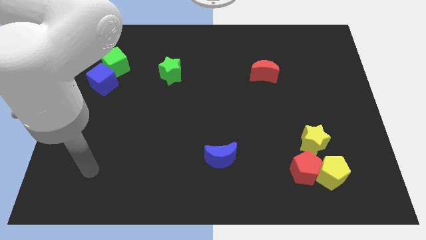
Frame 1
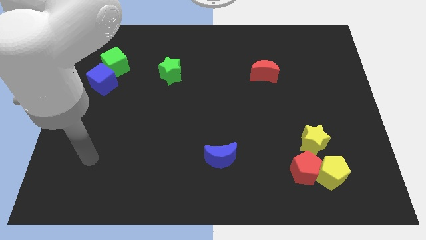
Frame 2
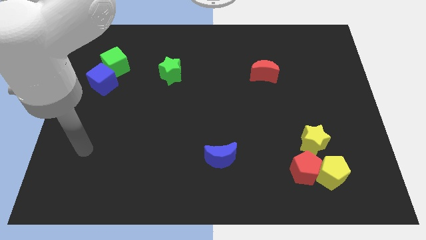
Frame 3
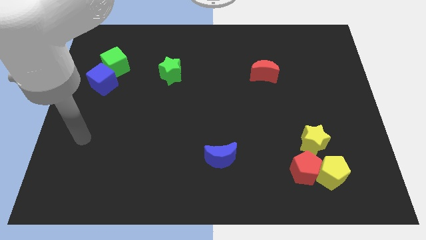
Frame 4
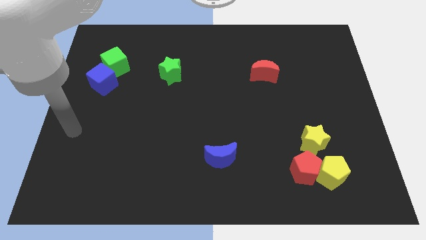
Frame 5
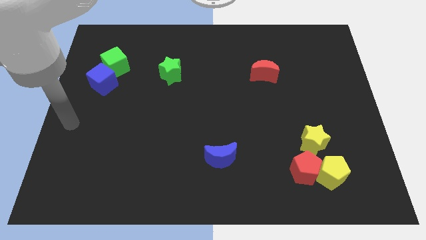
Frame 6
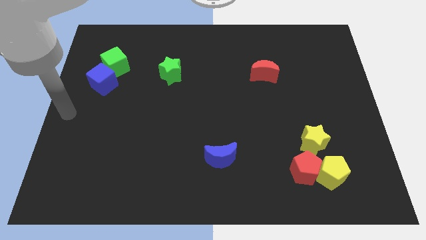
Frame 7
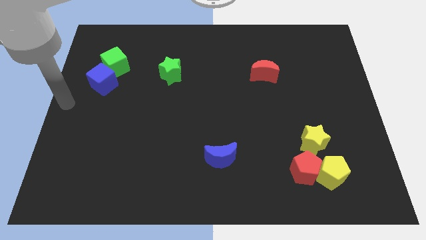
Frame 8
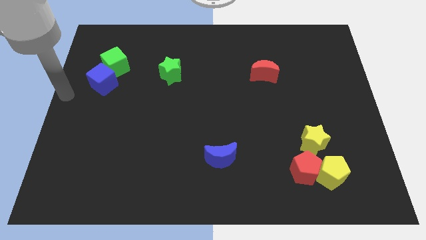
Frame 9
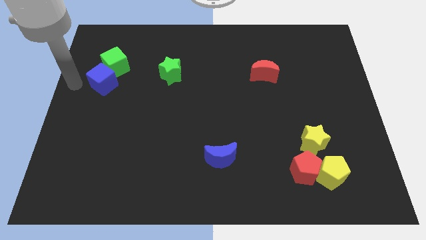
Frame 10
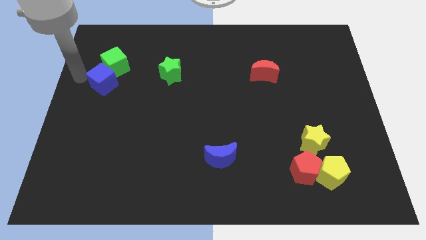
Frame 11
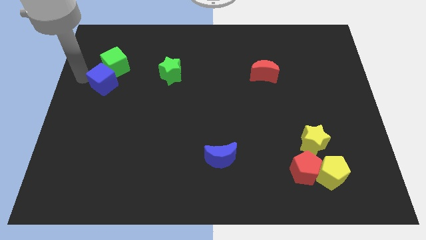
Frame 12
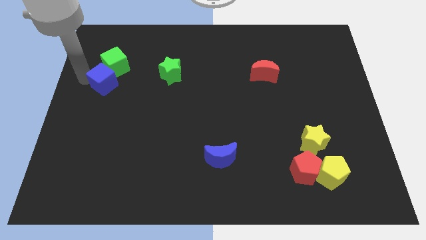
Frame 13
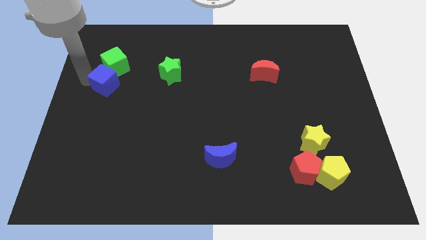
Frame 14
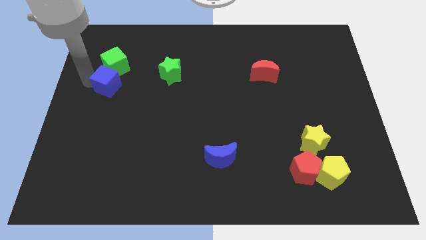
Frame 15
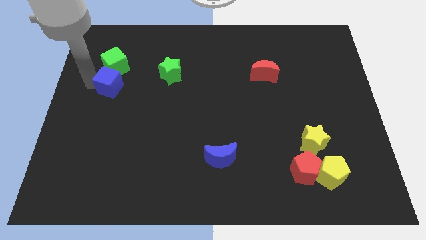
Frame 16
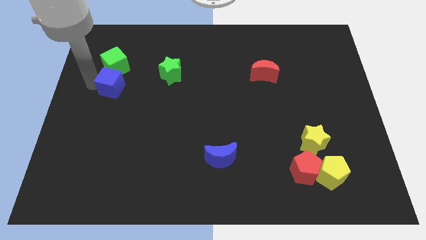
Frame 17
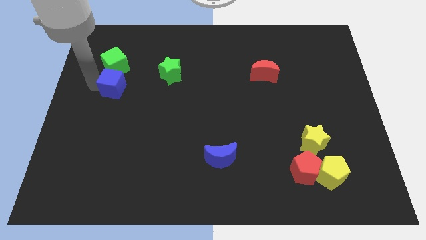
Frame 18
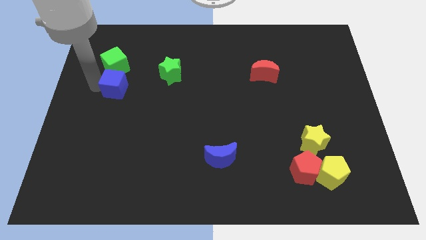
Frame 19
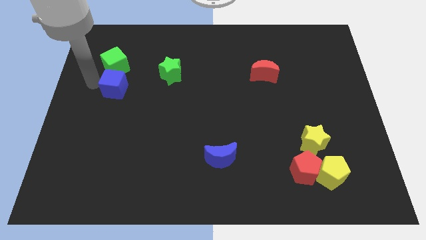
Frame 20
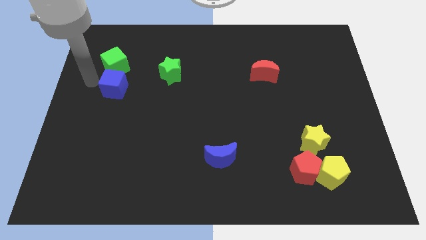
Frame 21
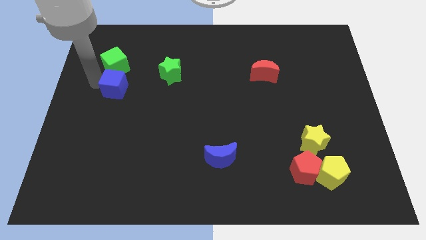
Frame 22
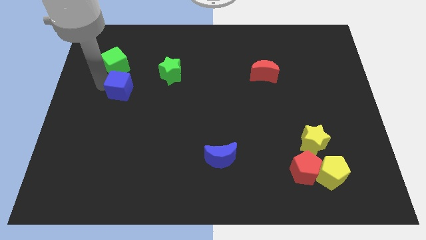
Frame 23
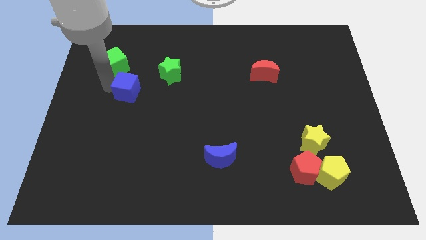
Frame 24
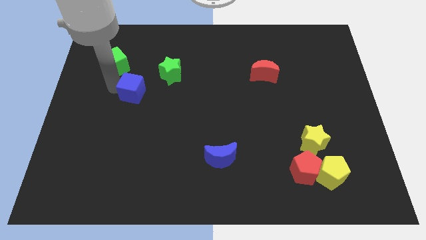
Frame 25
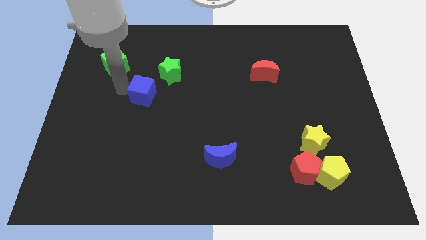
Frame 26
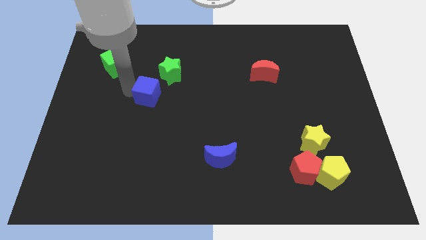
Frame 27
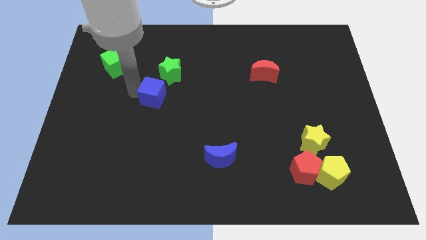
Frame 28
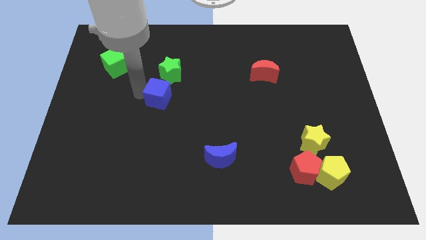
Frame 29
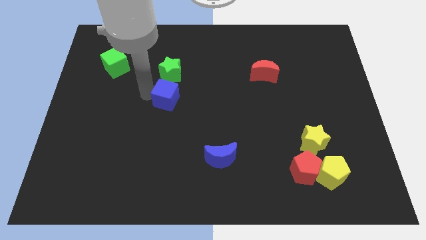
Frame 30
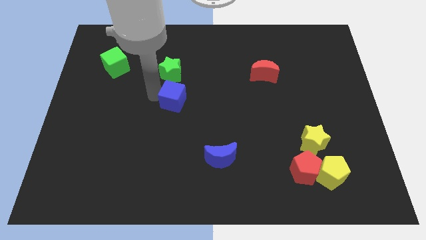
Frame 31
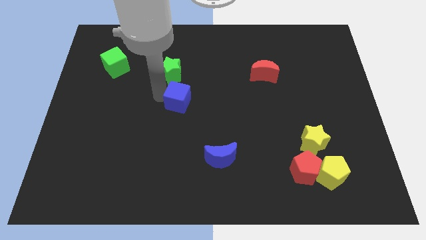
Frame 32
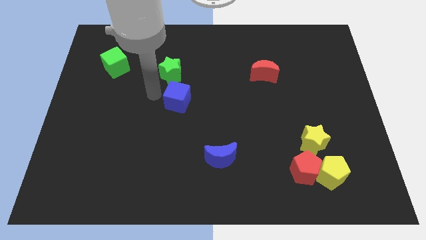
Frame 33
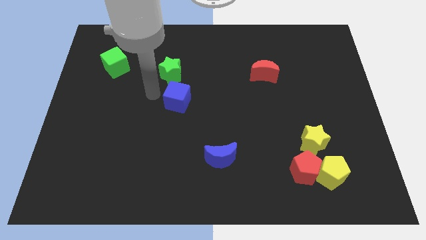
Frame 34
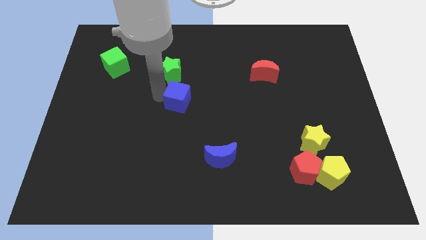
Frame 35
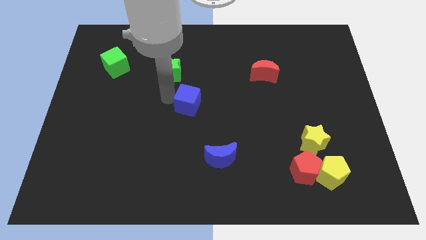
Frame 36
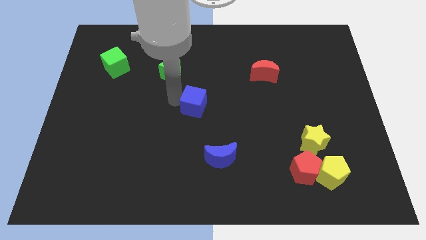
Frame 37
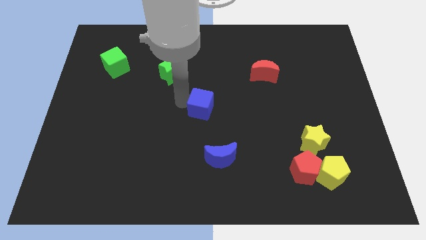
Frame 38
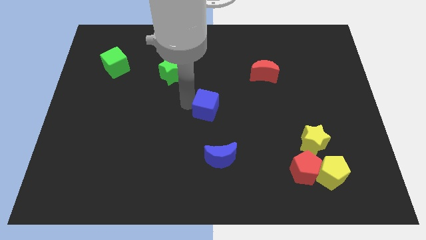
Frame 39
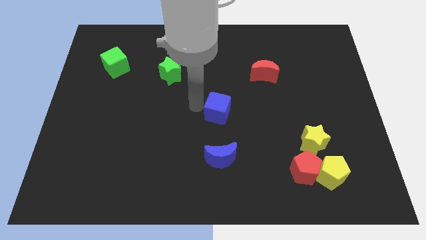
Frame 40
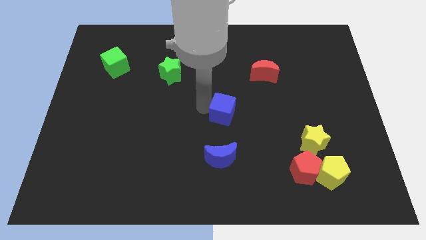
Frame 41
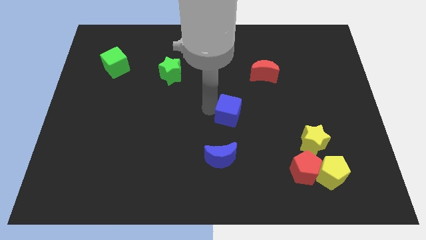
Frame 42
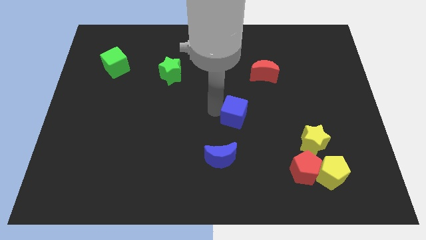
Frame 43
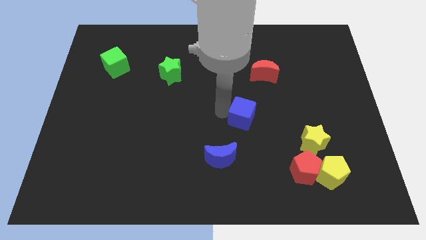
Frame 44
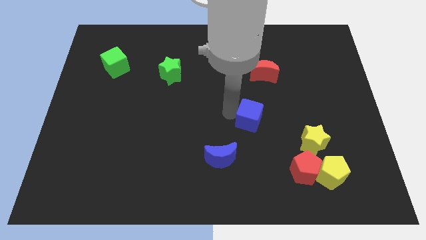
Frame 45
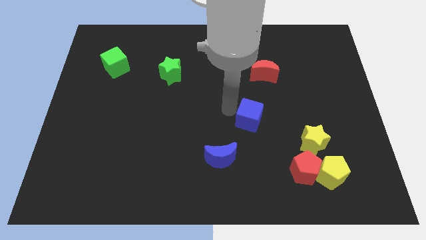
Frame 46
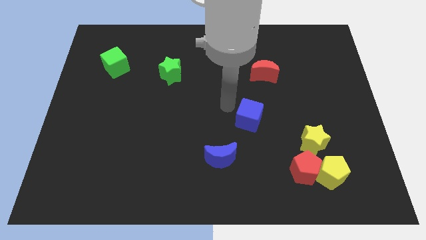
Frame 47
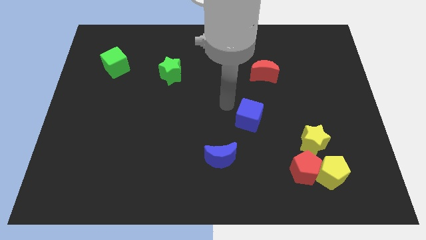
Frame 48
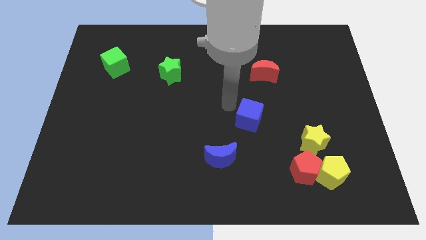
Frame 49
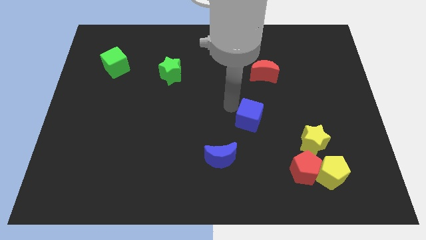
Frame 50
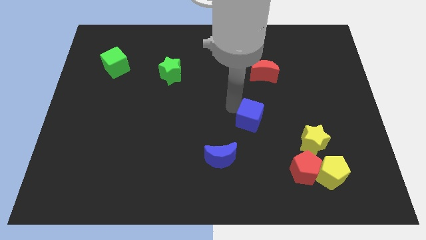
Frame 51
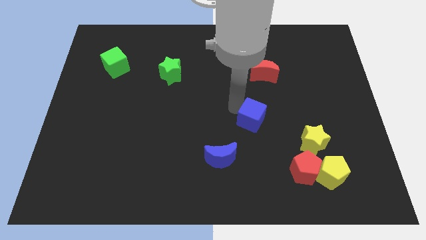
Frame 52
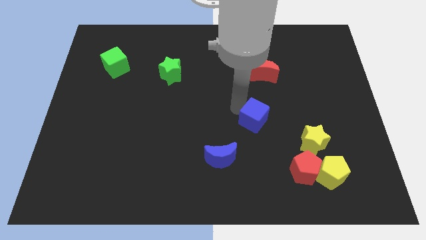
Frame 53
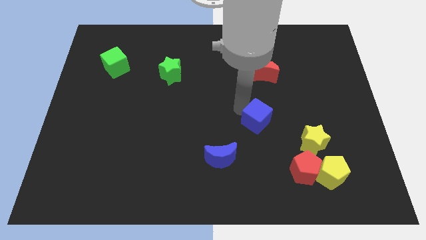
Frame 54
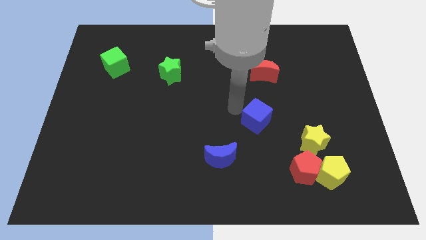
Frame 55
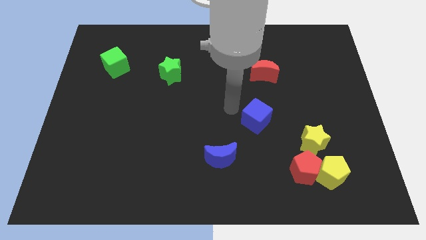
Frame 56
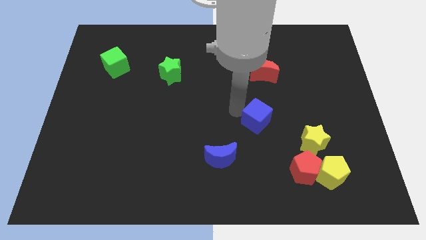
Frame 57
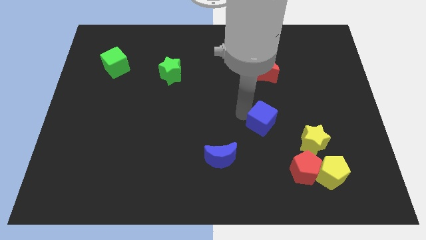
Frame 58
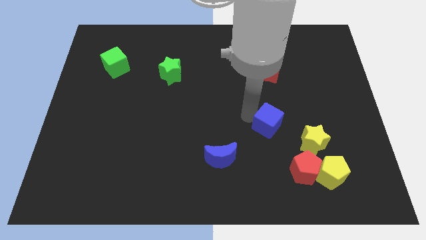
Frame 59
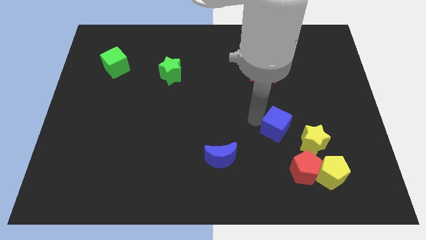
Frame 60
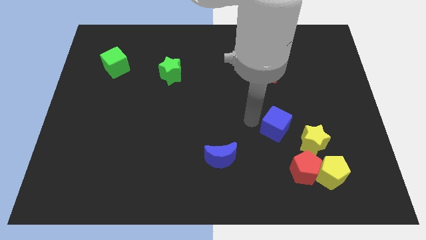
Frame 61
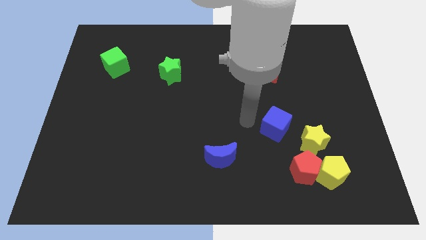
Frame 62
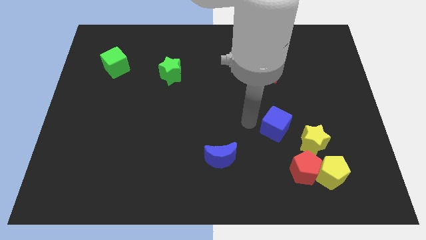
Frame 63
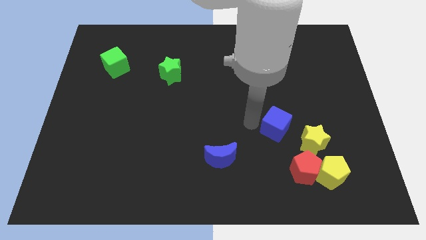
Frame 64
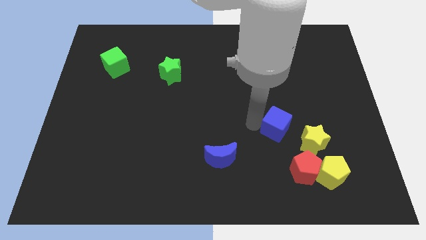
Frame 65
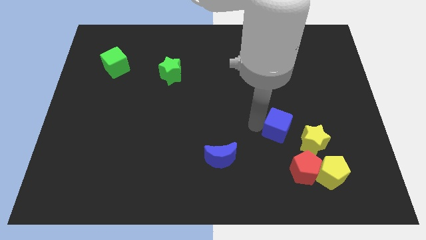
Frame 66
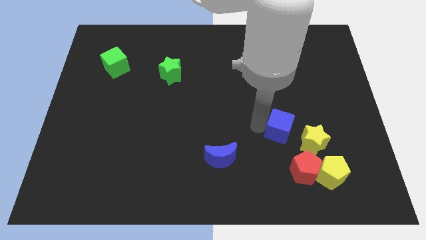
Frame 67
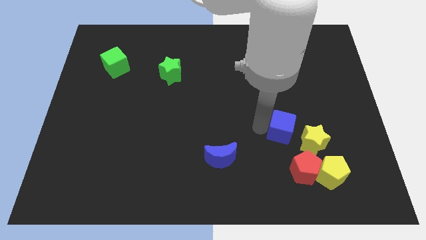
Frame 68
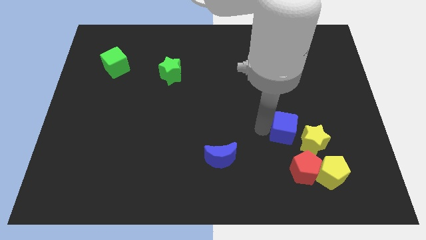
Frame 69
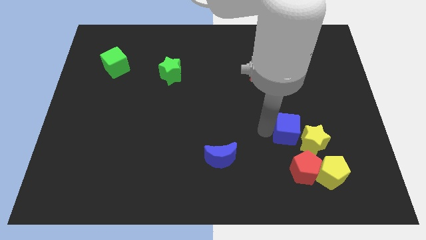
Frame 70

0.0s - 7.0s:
put the blue cube close to the yellow star
